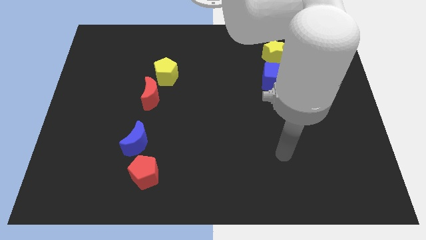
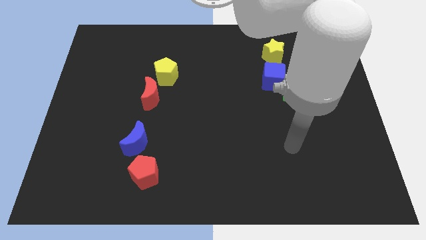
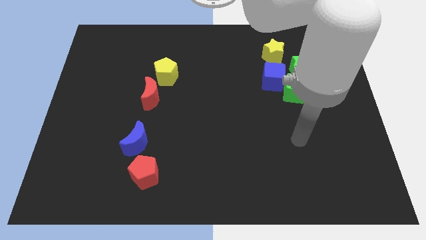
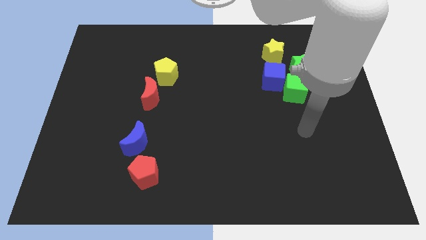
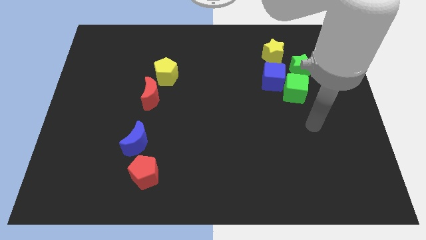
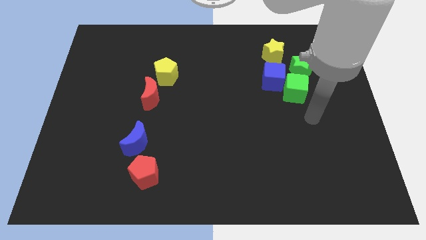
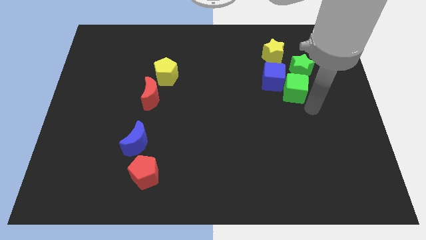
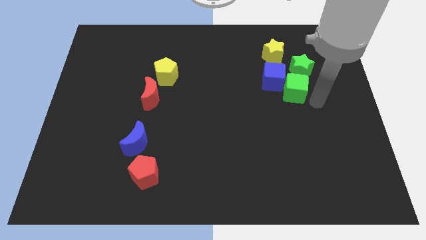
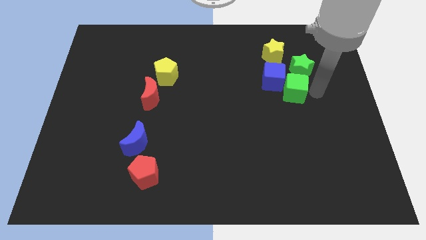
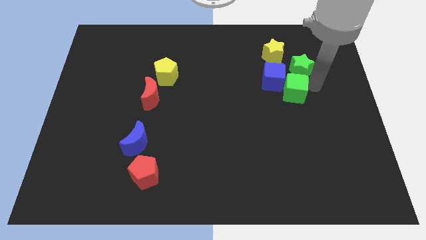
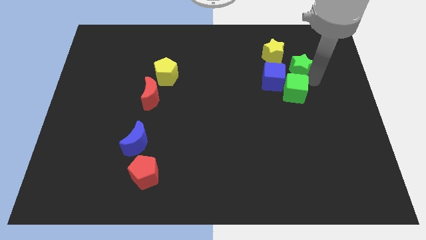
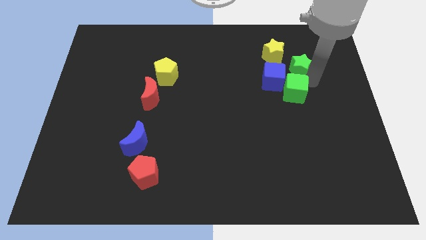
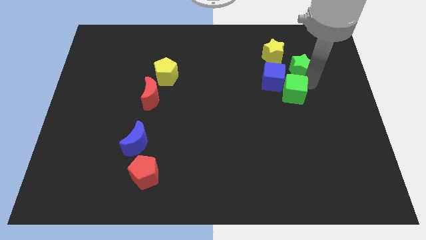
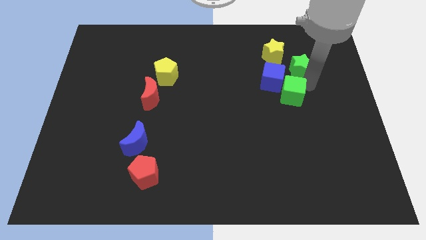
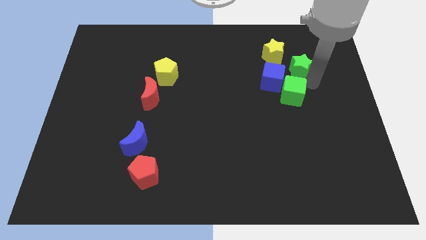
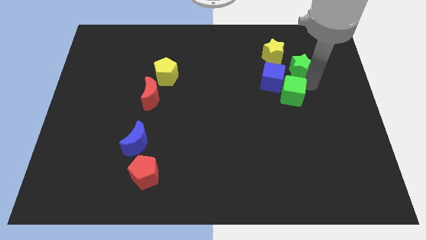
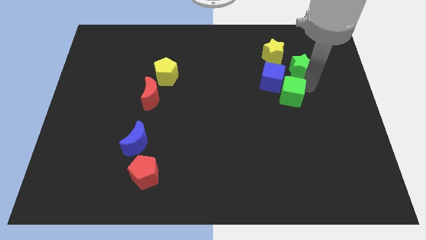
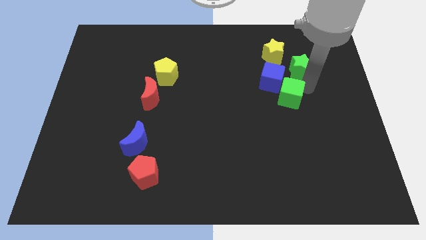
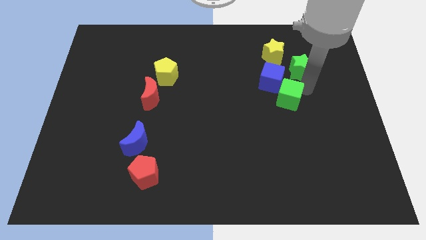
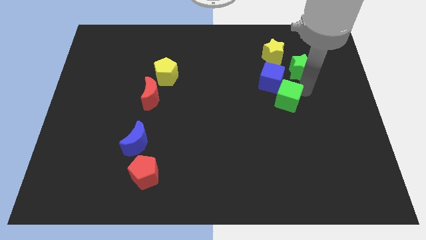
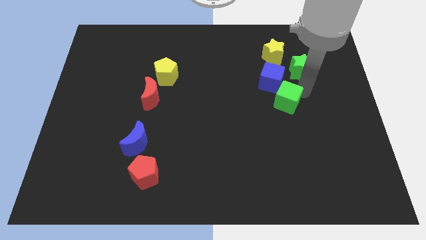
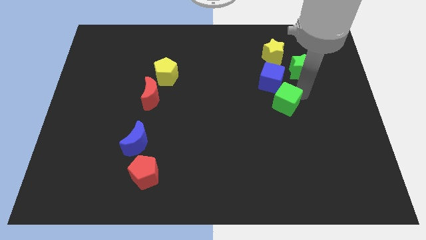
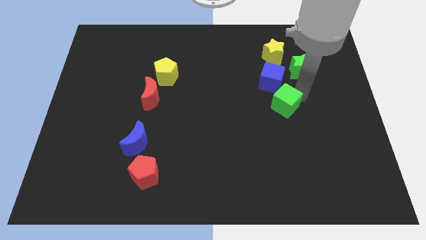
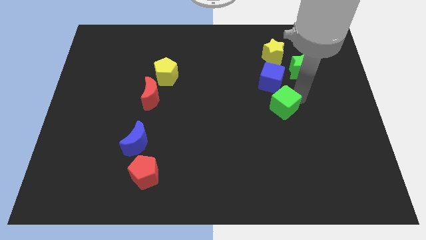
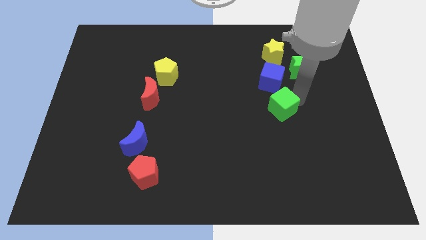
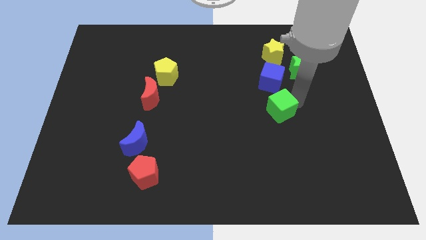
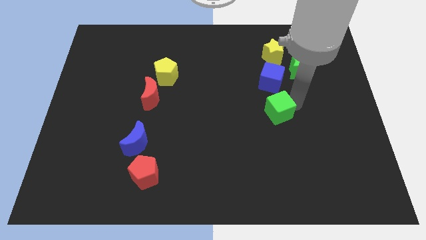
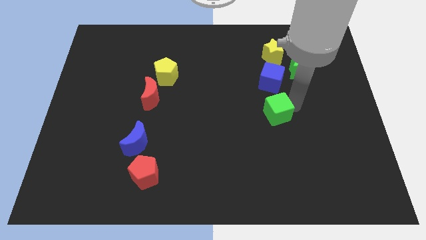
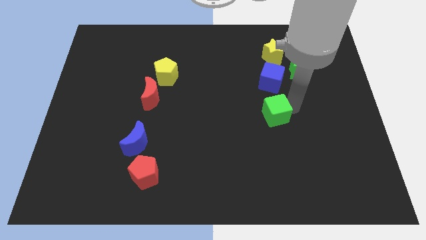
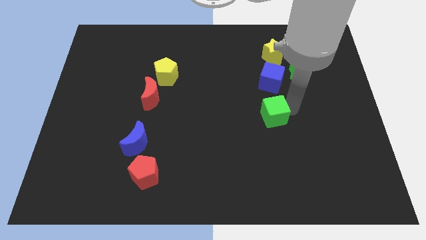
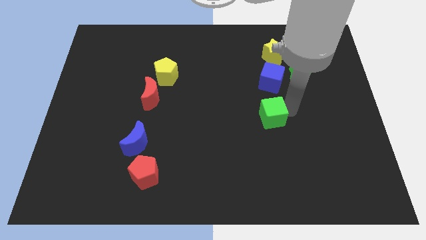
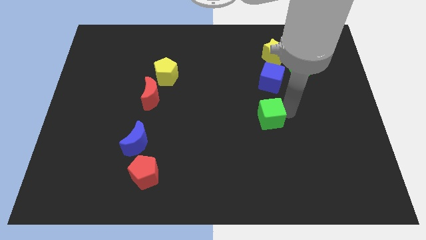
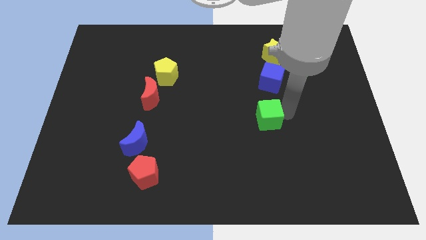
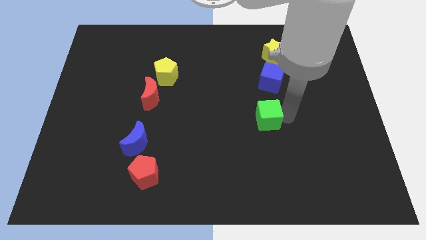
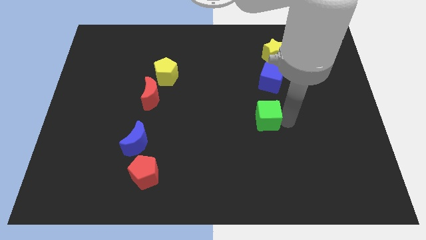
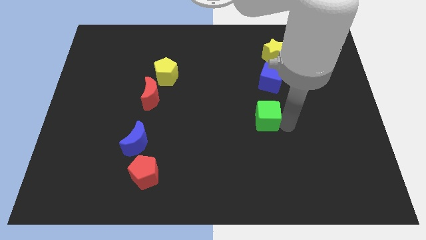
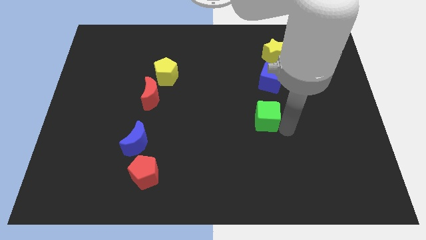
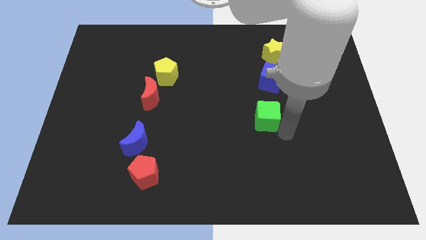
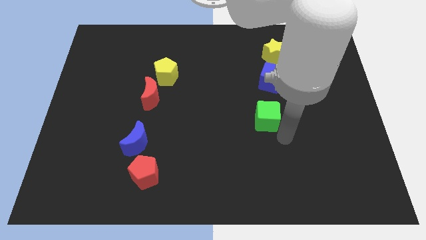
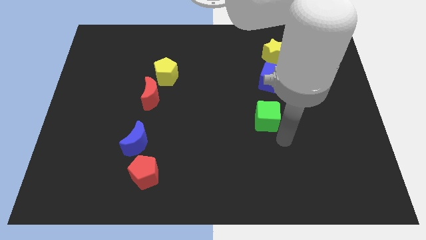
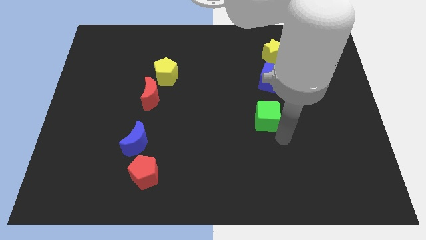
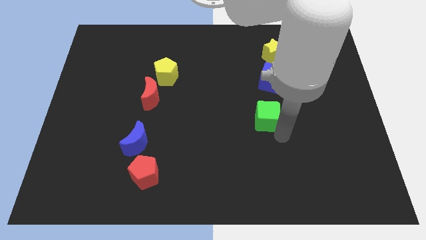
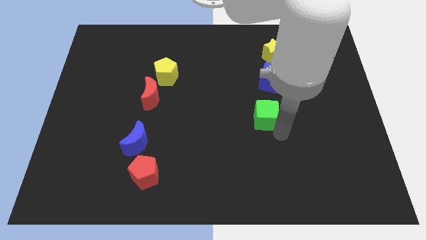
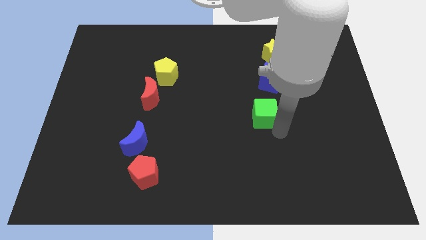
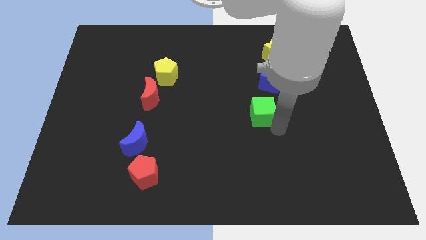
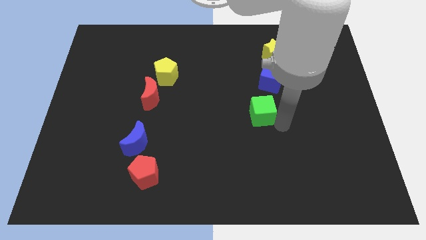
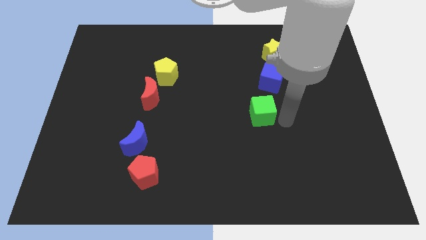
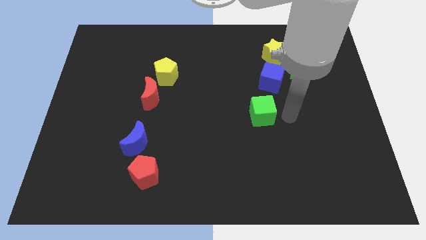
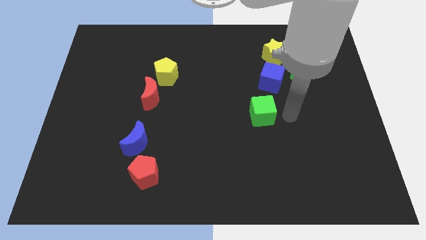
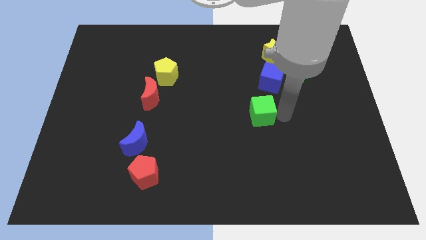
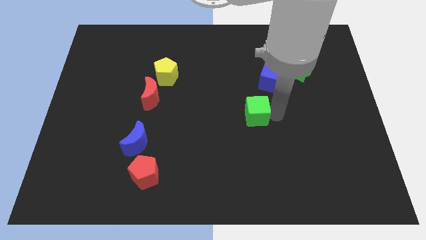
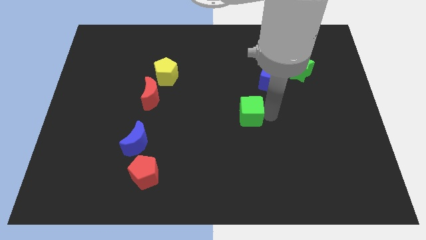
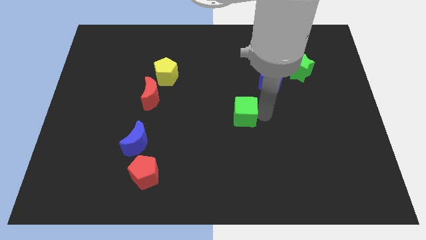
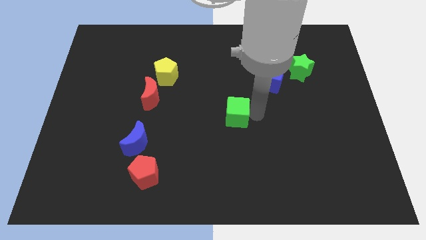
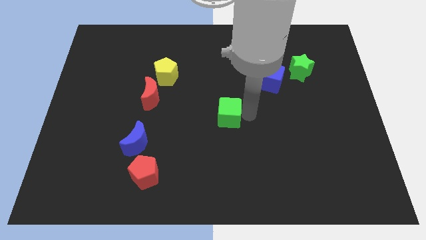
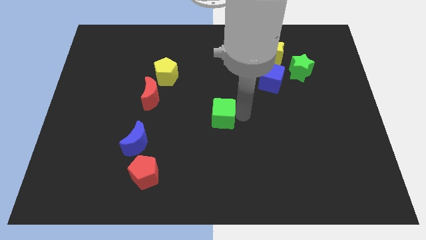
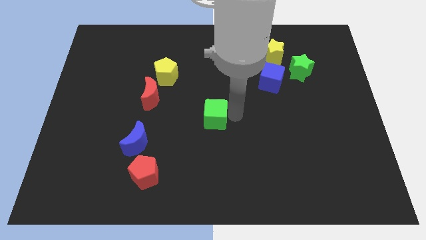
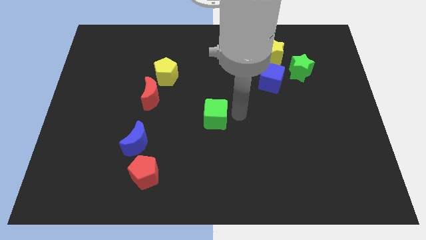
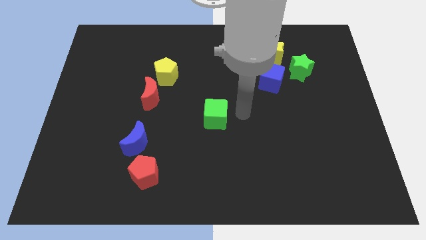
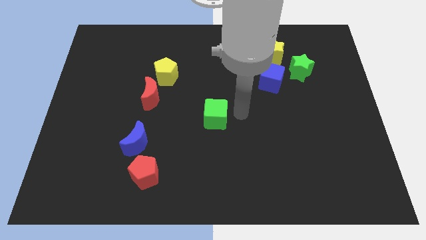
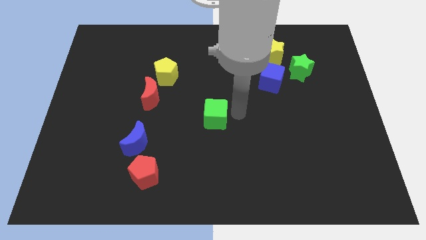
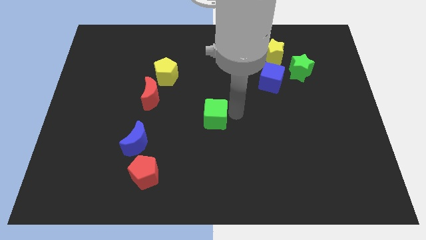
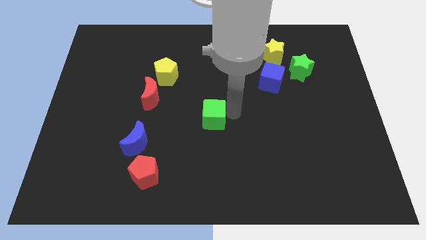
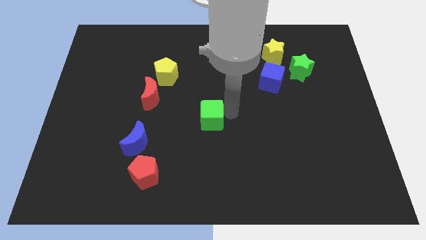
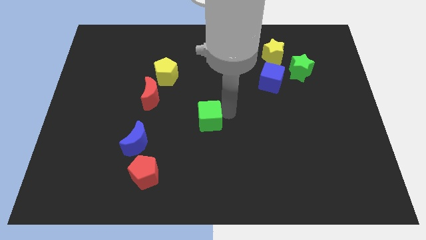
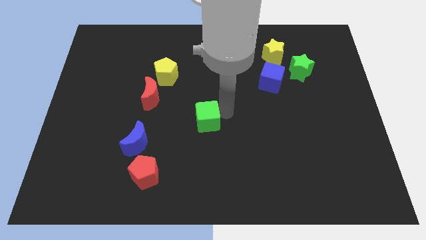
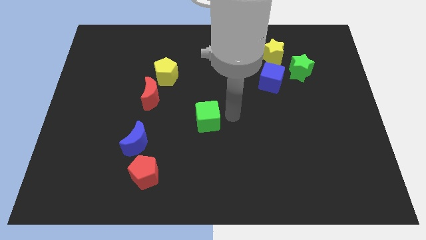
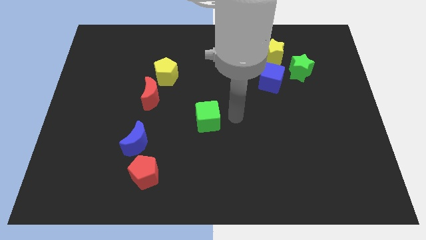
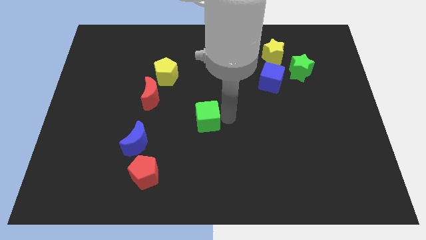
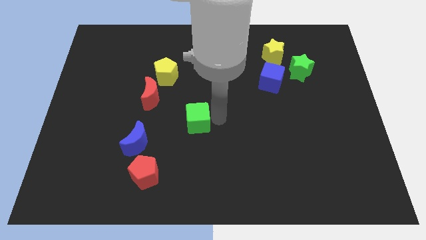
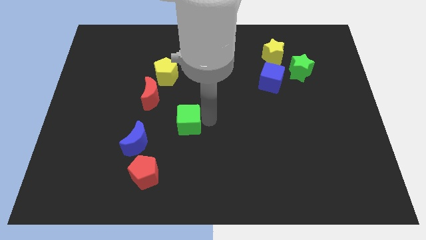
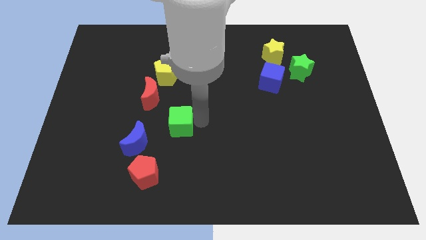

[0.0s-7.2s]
put the green cube to the top right side of the blue moon
